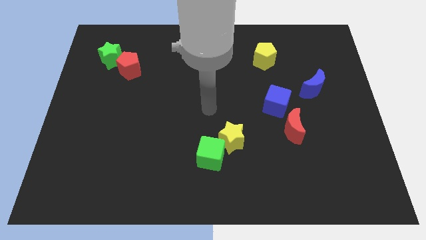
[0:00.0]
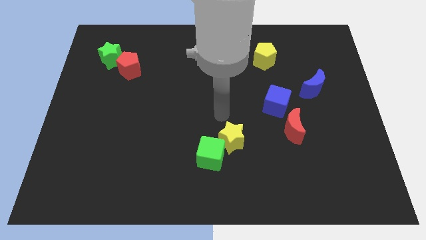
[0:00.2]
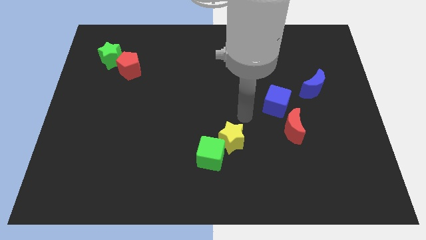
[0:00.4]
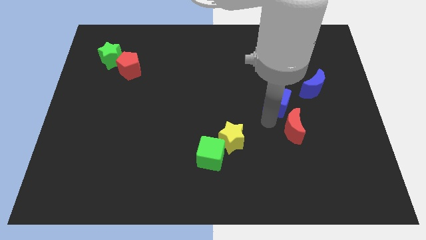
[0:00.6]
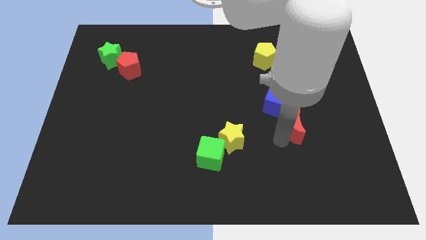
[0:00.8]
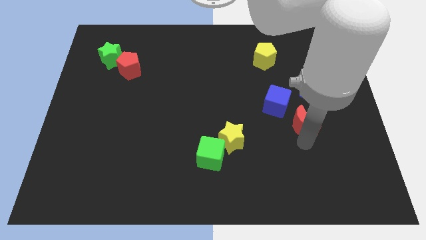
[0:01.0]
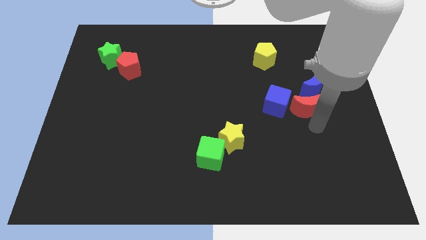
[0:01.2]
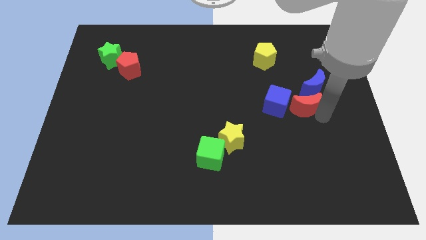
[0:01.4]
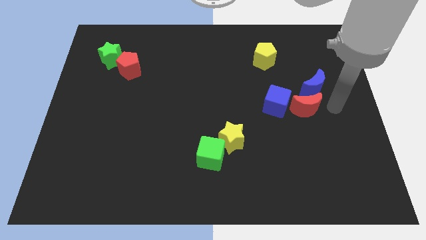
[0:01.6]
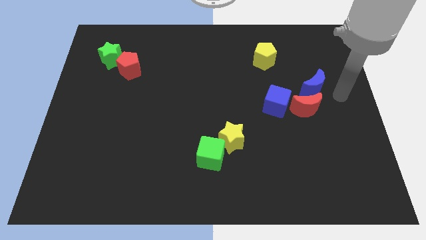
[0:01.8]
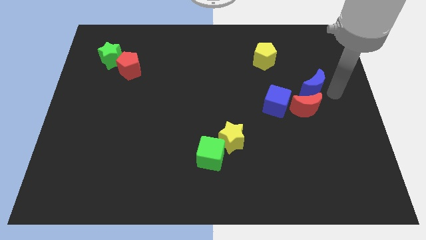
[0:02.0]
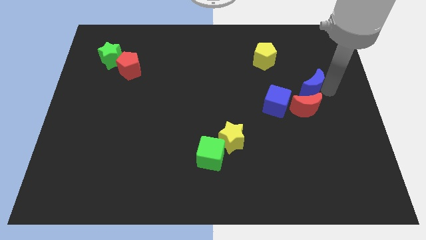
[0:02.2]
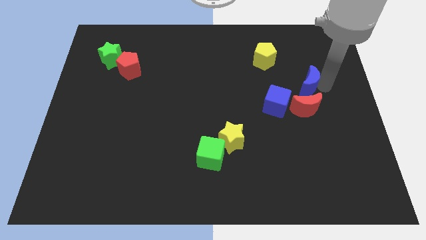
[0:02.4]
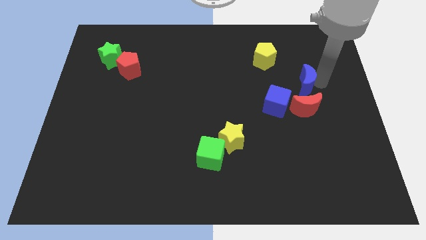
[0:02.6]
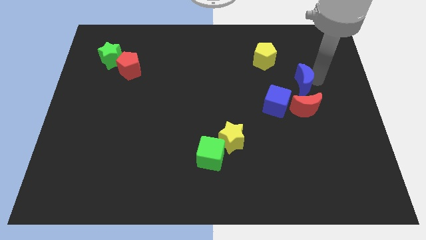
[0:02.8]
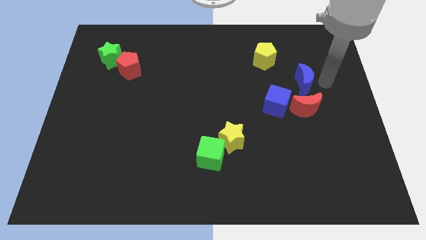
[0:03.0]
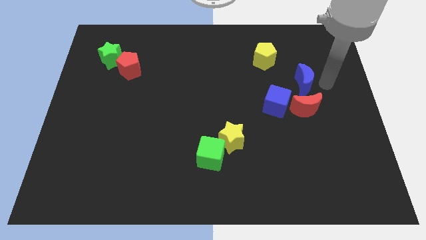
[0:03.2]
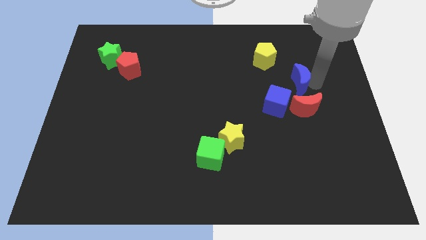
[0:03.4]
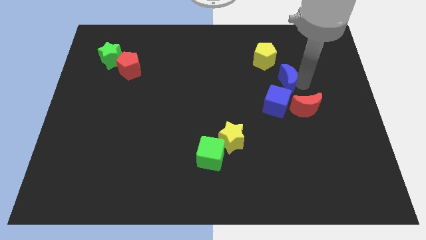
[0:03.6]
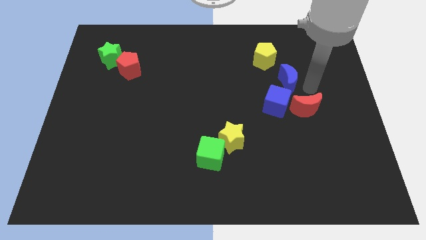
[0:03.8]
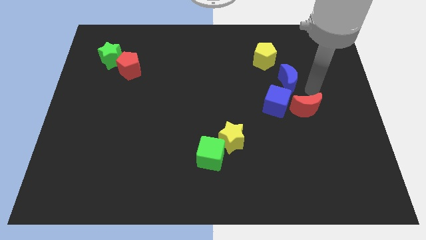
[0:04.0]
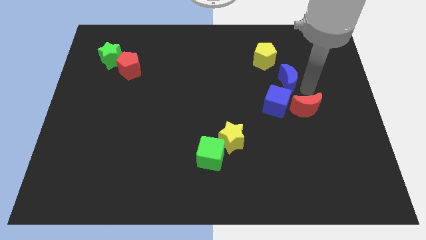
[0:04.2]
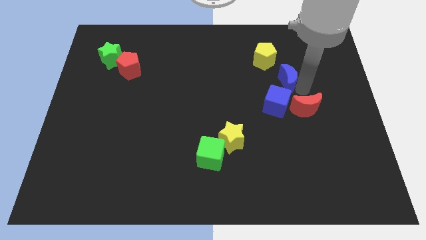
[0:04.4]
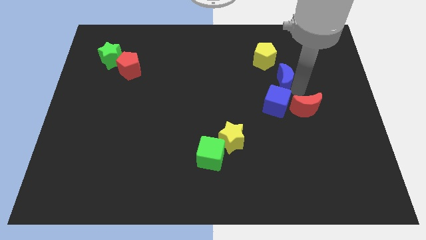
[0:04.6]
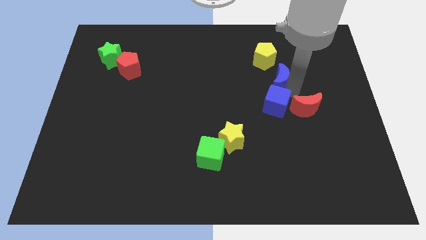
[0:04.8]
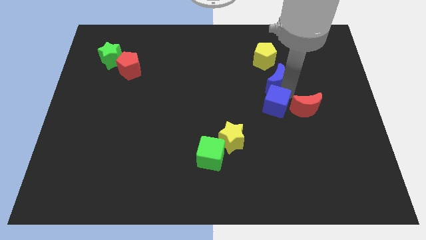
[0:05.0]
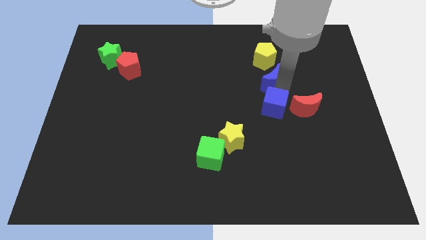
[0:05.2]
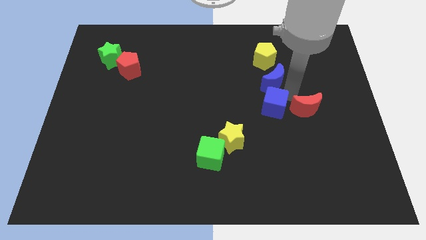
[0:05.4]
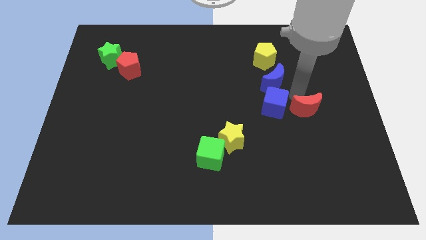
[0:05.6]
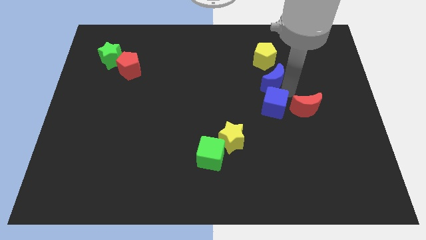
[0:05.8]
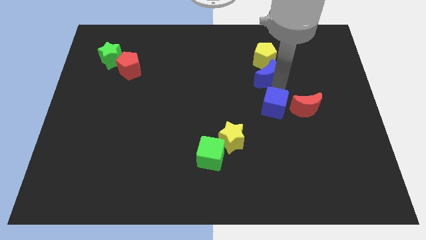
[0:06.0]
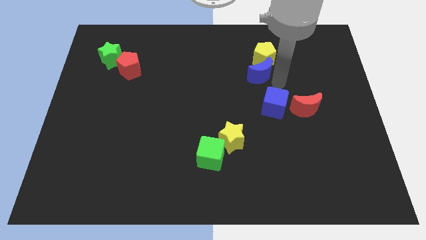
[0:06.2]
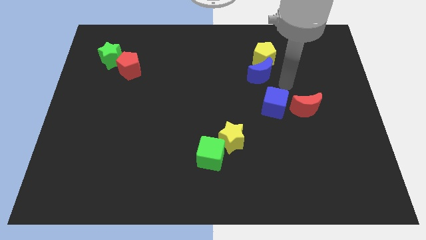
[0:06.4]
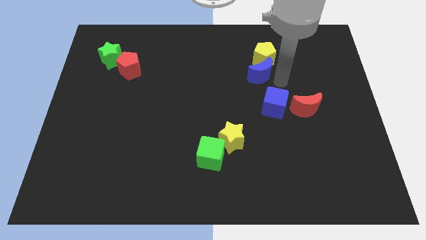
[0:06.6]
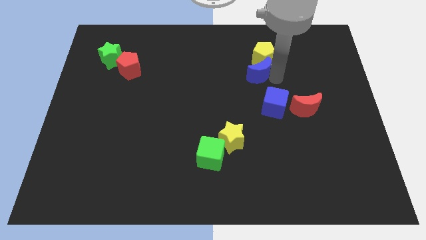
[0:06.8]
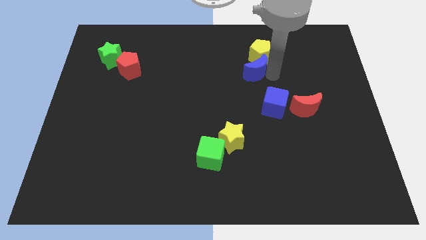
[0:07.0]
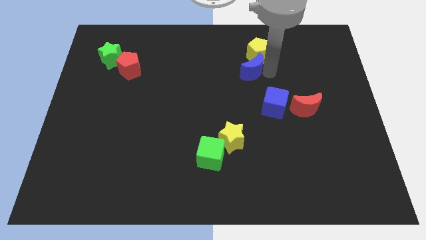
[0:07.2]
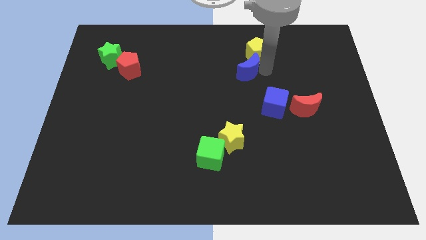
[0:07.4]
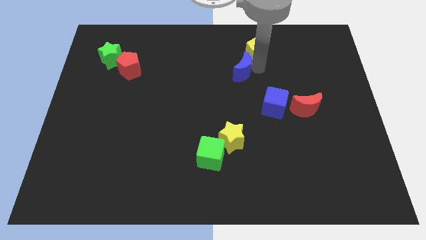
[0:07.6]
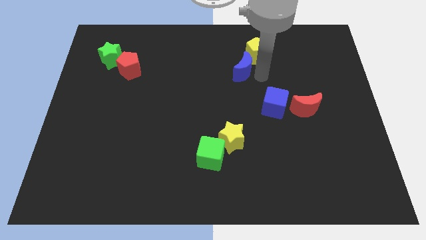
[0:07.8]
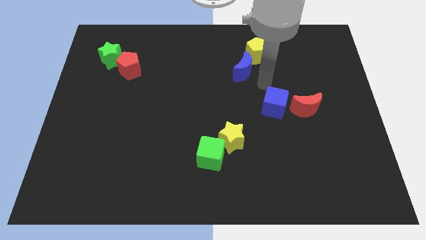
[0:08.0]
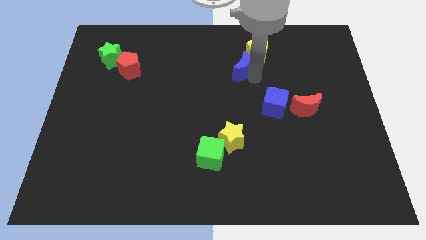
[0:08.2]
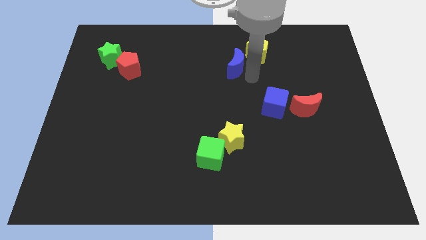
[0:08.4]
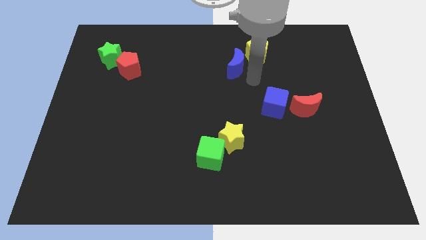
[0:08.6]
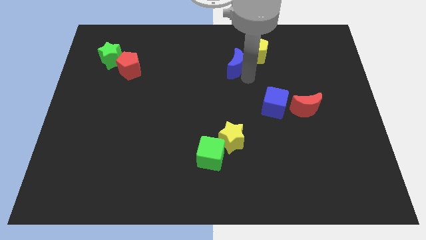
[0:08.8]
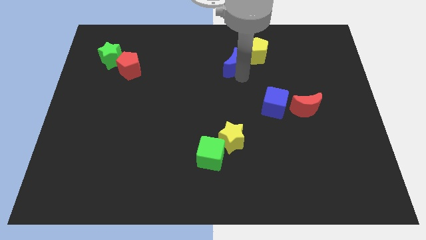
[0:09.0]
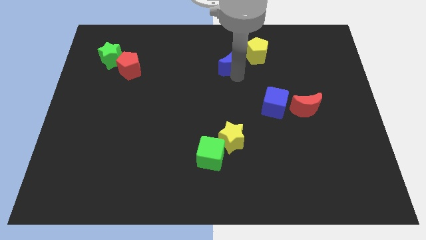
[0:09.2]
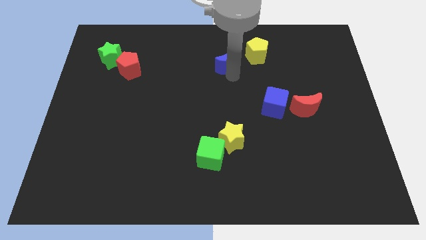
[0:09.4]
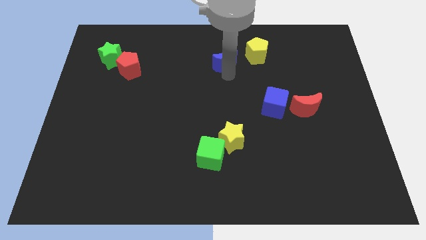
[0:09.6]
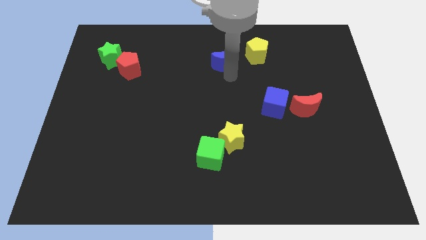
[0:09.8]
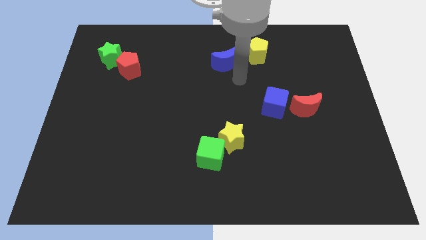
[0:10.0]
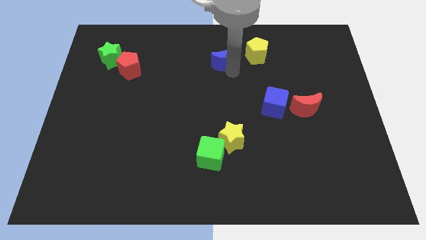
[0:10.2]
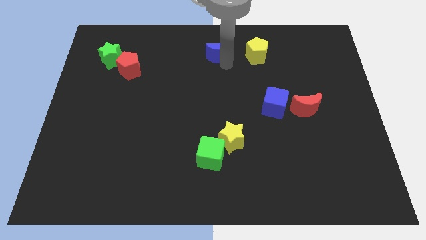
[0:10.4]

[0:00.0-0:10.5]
slide the blue moon to the top side

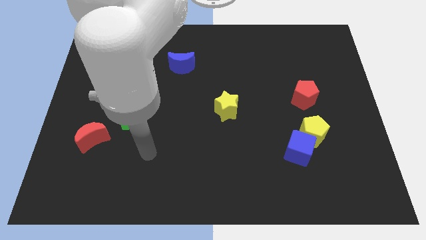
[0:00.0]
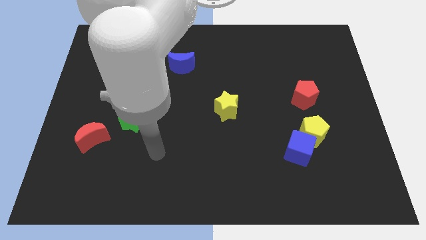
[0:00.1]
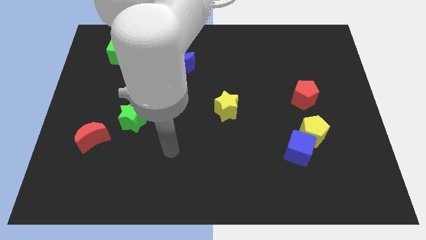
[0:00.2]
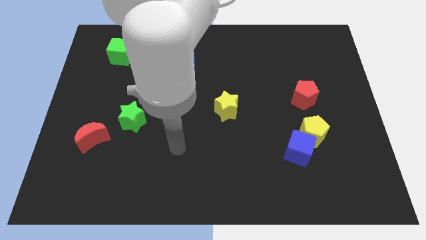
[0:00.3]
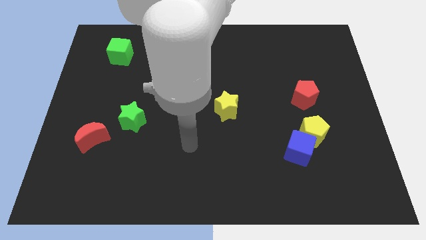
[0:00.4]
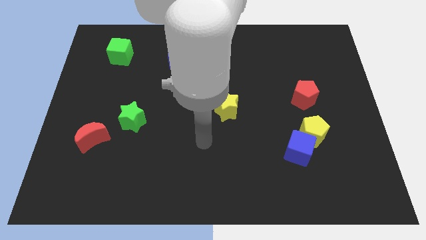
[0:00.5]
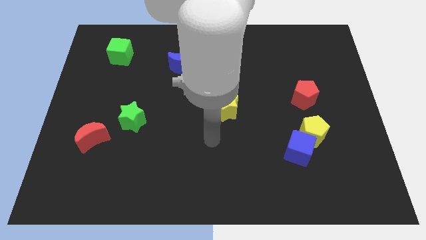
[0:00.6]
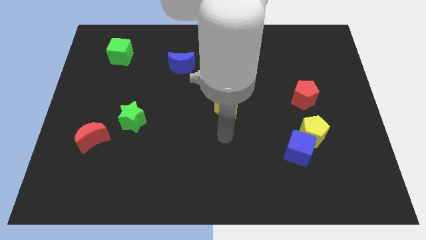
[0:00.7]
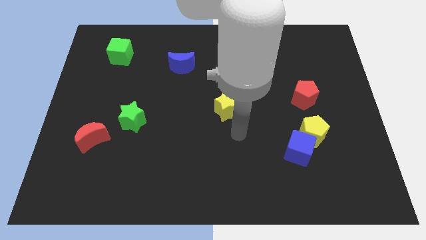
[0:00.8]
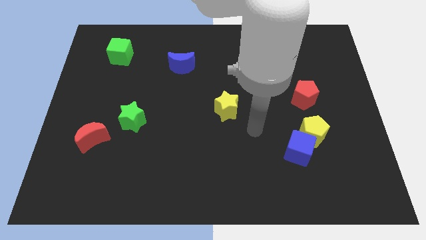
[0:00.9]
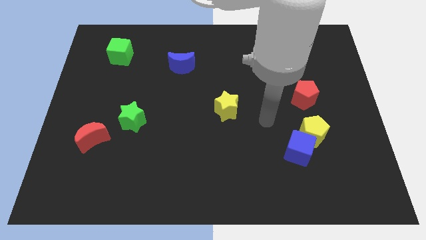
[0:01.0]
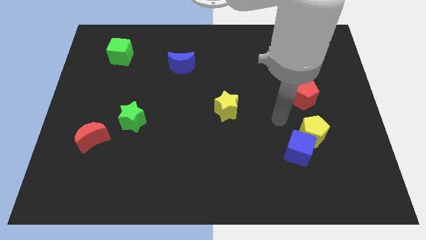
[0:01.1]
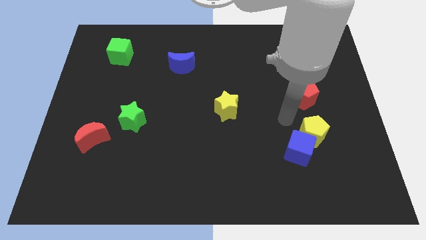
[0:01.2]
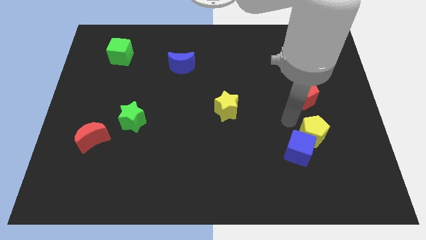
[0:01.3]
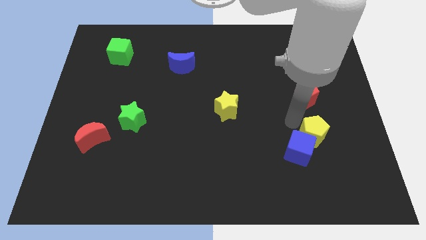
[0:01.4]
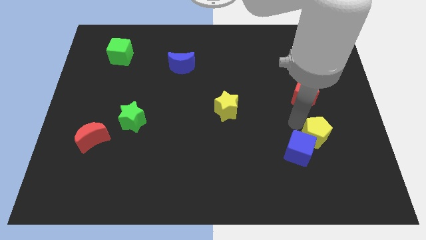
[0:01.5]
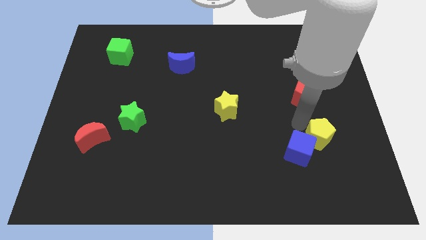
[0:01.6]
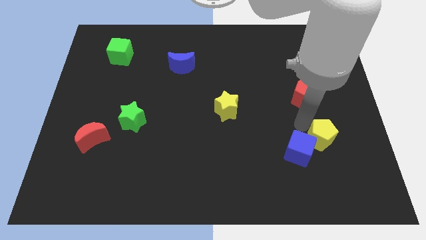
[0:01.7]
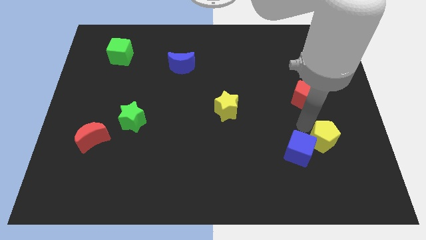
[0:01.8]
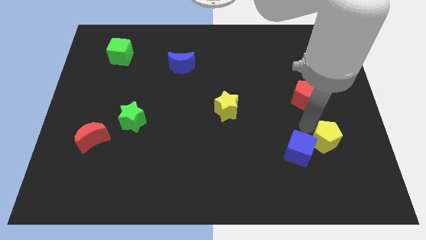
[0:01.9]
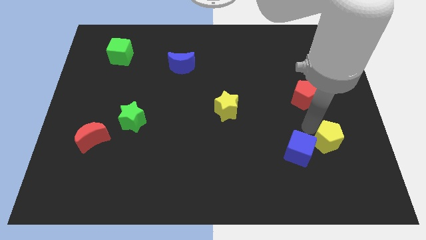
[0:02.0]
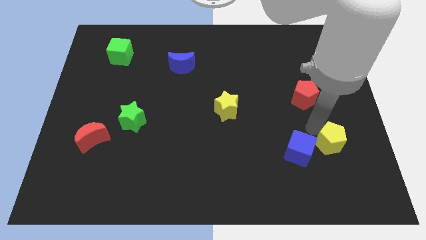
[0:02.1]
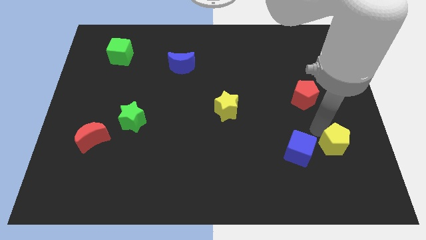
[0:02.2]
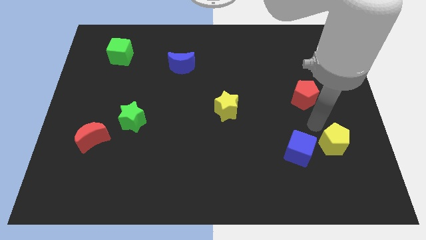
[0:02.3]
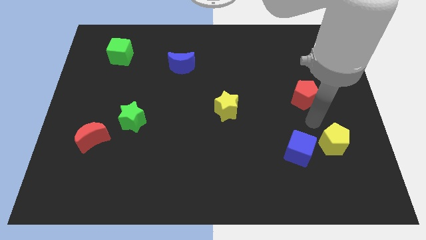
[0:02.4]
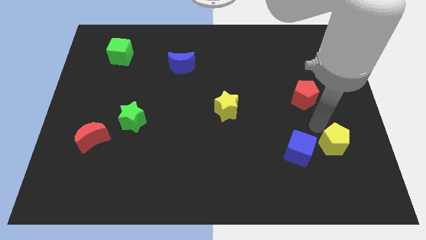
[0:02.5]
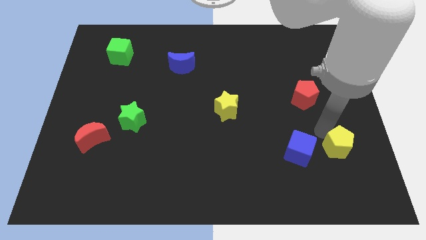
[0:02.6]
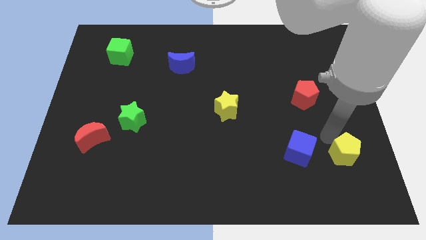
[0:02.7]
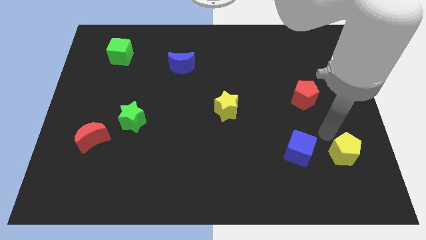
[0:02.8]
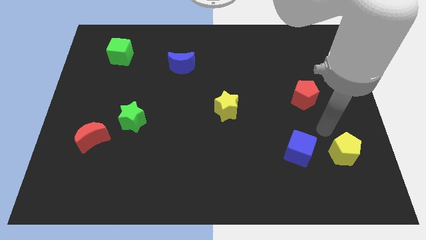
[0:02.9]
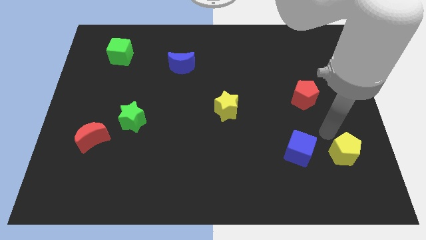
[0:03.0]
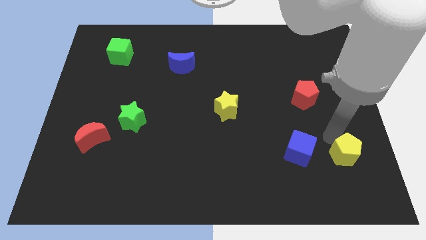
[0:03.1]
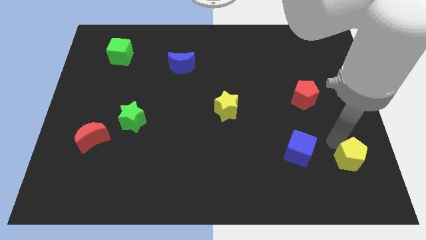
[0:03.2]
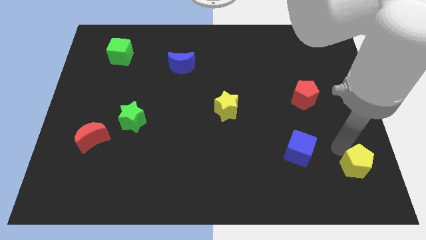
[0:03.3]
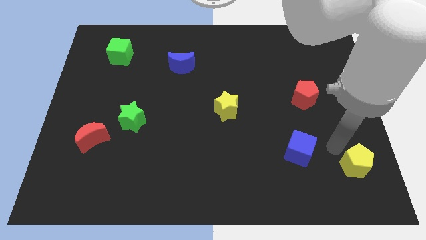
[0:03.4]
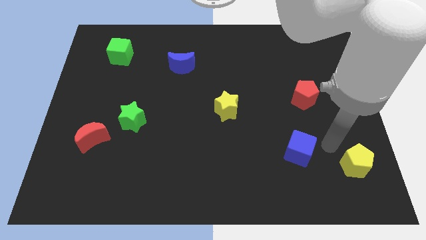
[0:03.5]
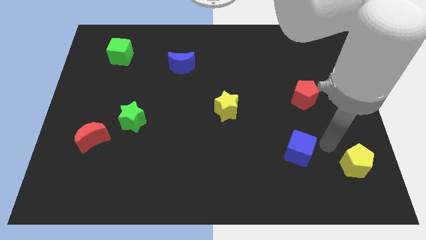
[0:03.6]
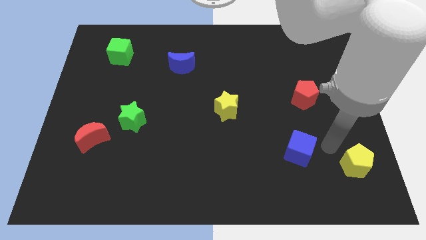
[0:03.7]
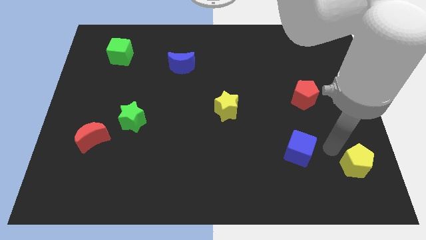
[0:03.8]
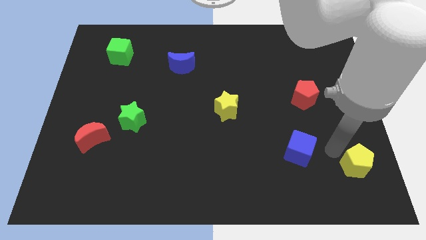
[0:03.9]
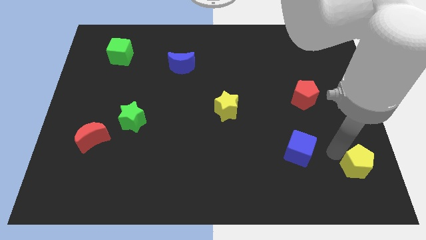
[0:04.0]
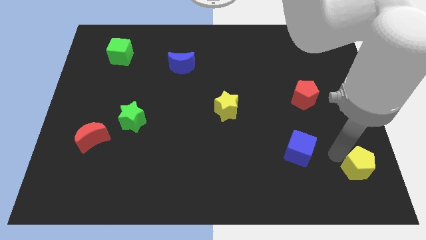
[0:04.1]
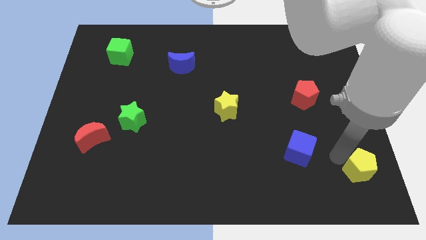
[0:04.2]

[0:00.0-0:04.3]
put the yellow pentagon to the bottom right corner
